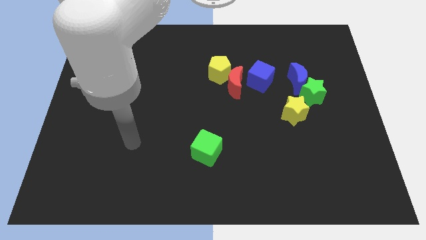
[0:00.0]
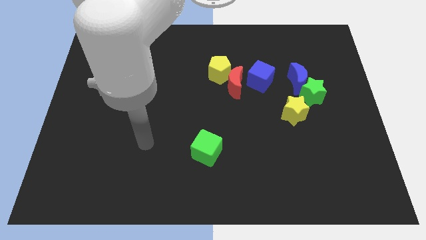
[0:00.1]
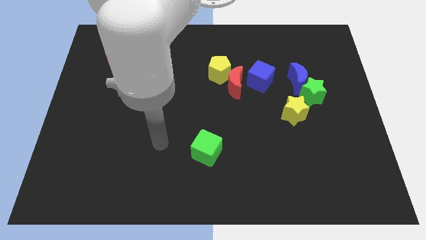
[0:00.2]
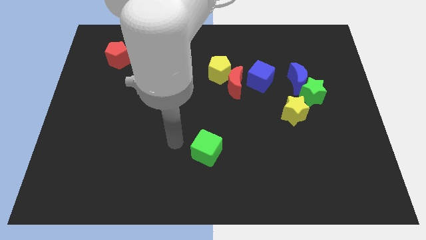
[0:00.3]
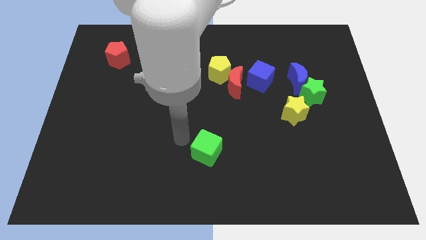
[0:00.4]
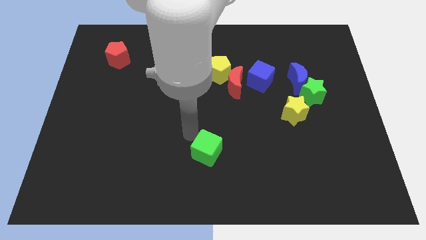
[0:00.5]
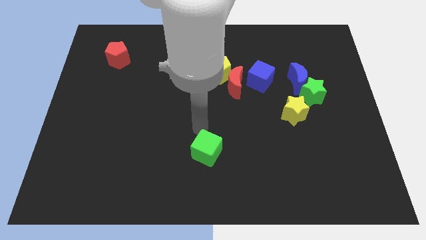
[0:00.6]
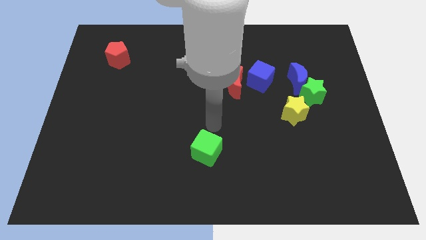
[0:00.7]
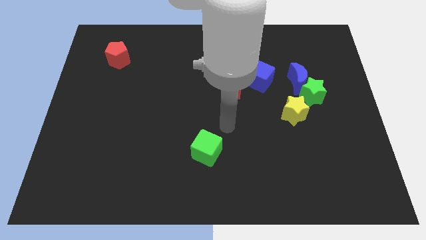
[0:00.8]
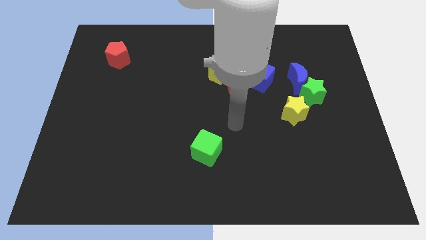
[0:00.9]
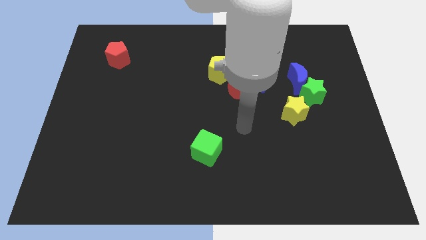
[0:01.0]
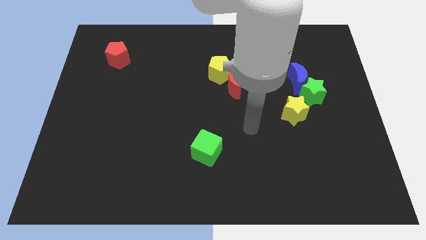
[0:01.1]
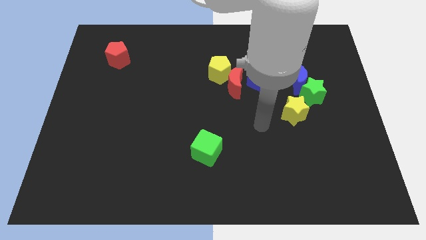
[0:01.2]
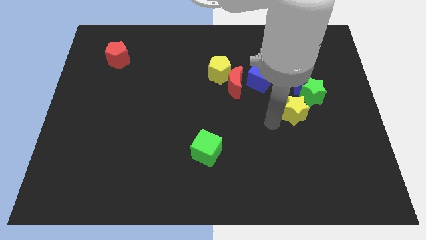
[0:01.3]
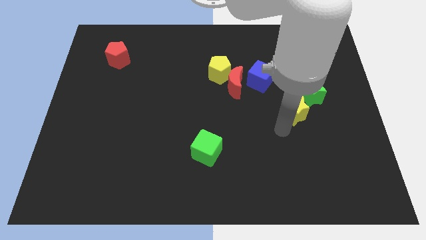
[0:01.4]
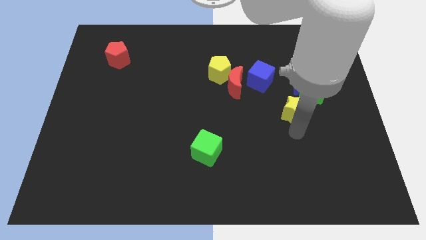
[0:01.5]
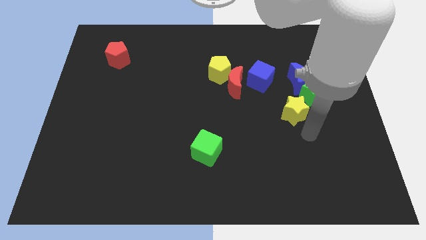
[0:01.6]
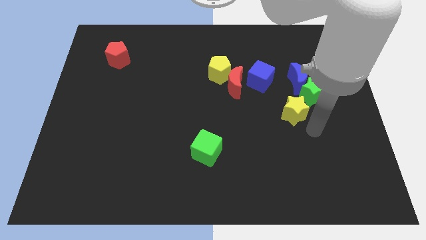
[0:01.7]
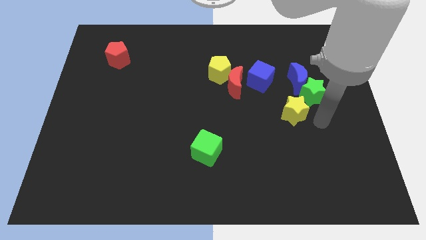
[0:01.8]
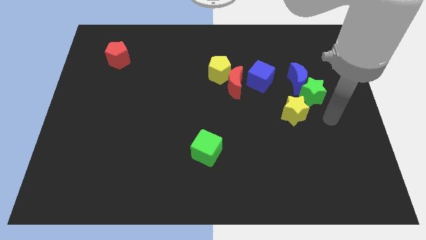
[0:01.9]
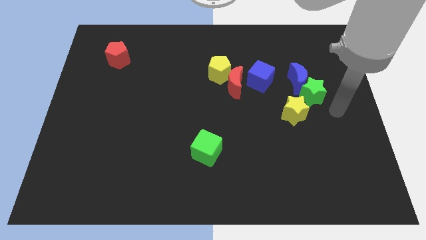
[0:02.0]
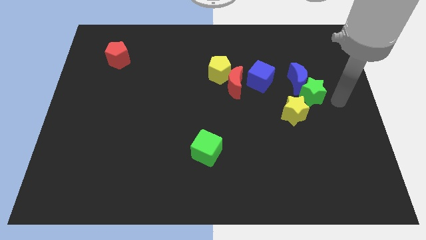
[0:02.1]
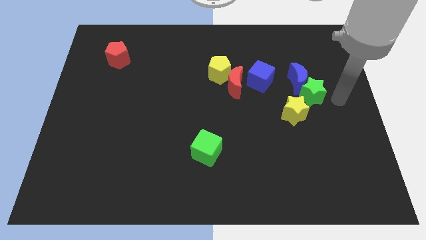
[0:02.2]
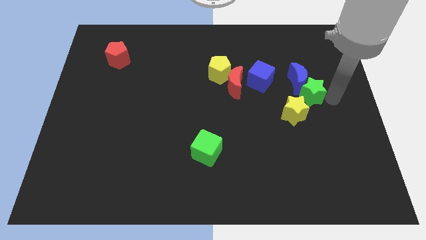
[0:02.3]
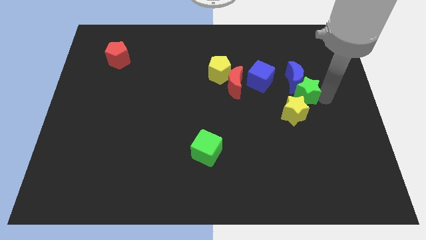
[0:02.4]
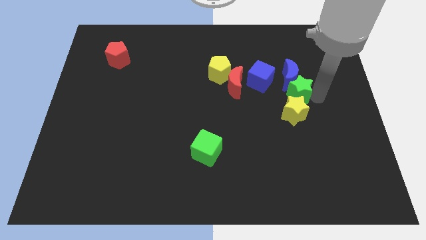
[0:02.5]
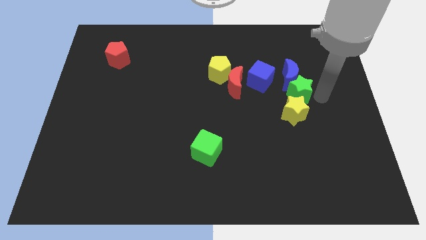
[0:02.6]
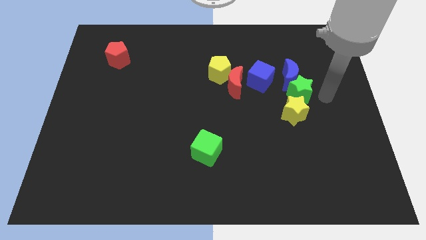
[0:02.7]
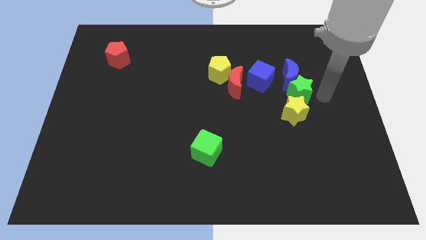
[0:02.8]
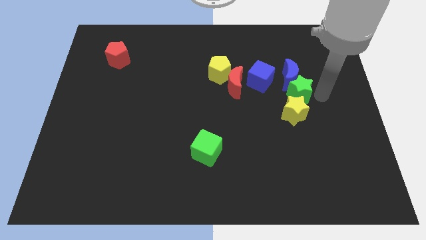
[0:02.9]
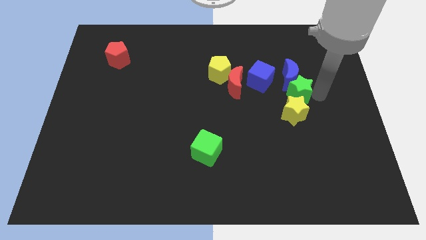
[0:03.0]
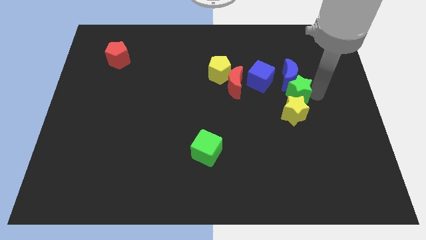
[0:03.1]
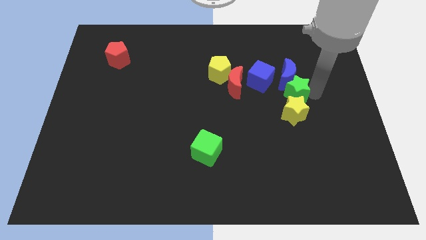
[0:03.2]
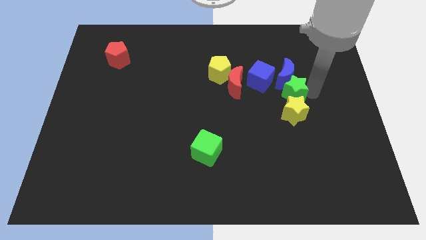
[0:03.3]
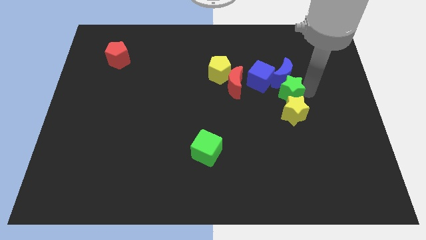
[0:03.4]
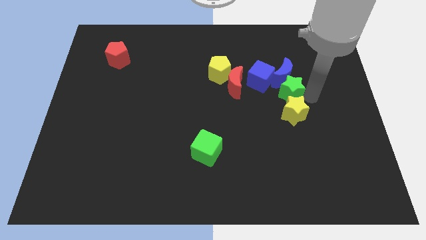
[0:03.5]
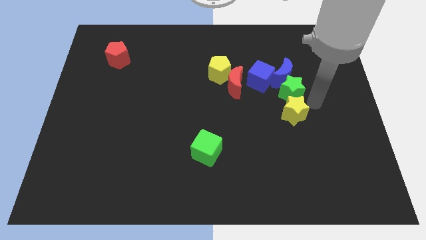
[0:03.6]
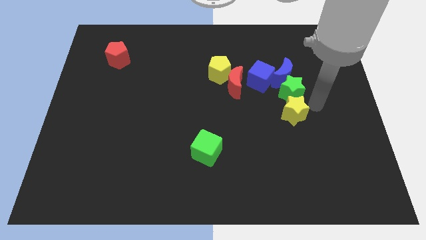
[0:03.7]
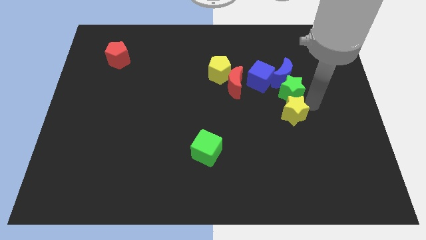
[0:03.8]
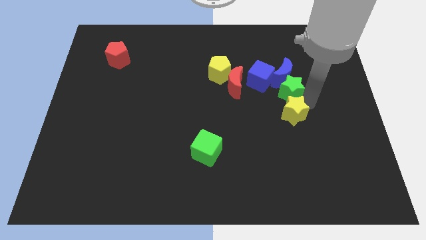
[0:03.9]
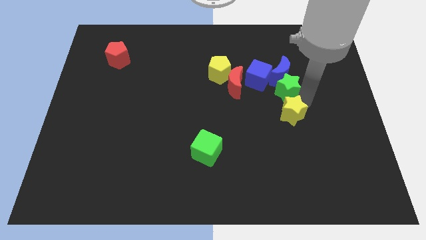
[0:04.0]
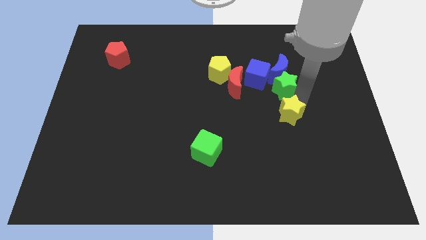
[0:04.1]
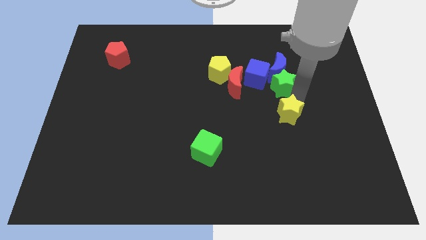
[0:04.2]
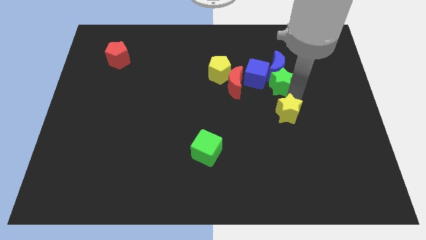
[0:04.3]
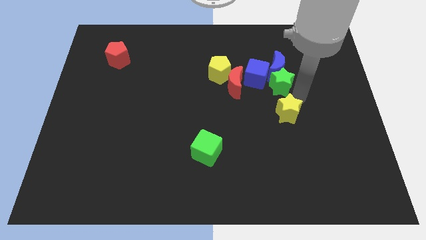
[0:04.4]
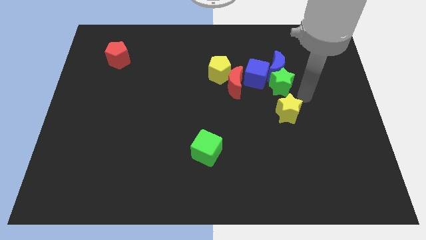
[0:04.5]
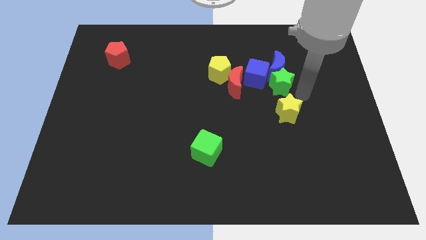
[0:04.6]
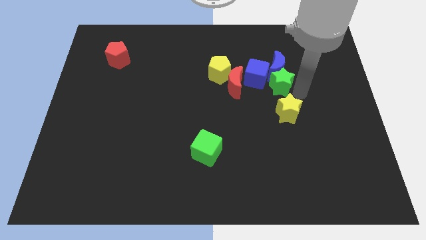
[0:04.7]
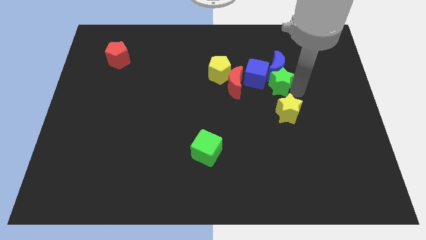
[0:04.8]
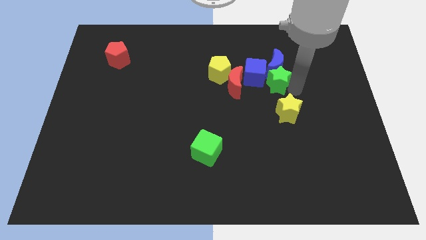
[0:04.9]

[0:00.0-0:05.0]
slide the green star close to the blue cube

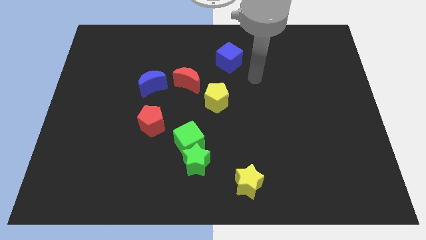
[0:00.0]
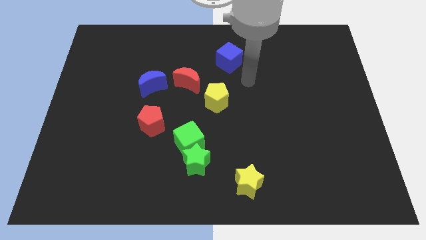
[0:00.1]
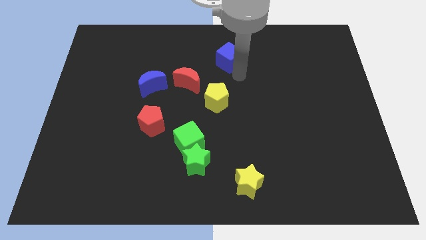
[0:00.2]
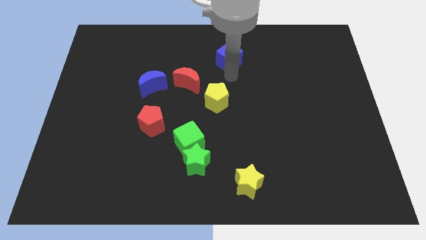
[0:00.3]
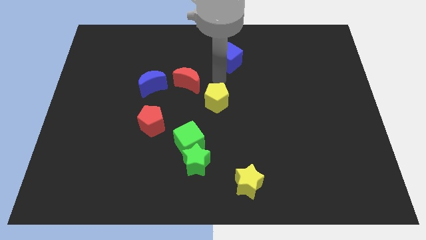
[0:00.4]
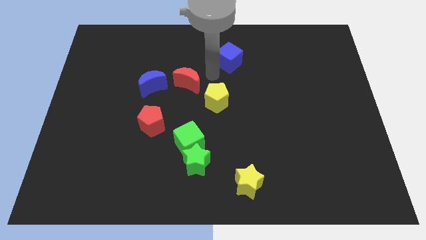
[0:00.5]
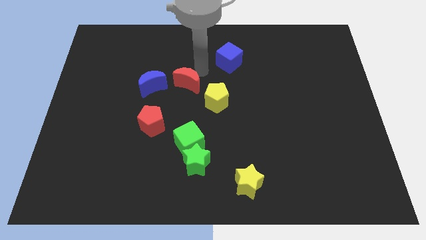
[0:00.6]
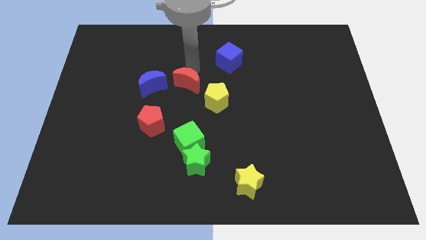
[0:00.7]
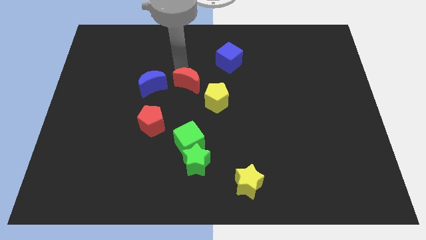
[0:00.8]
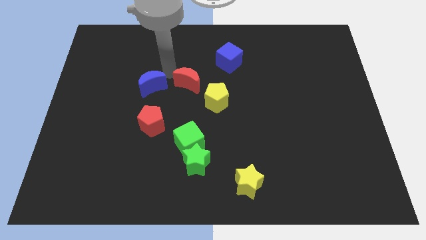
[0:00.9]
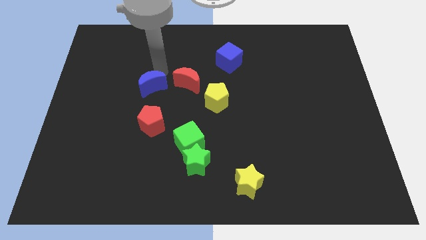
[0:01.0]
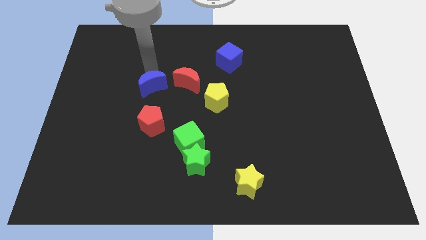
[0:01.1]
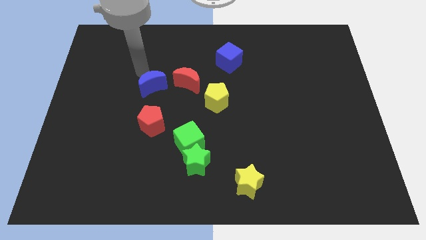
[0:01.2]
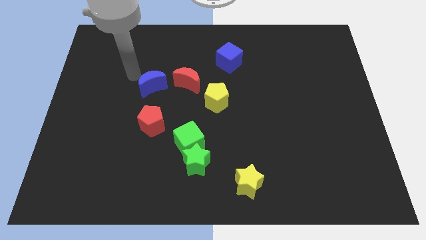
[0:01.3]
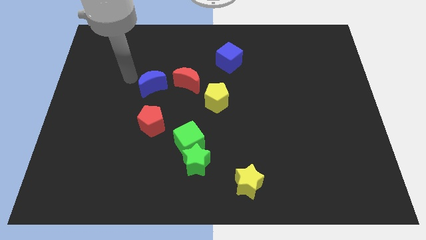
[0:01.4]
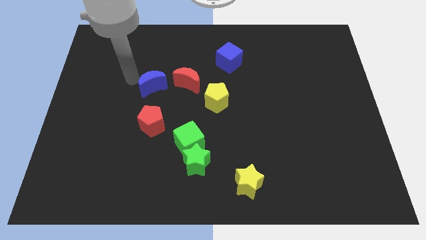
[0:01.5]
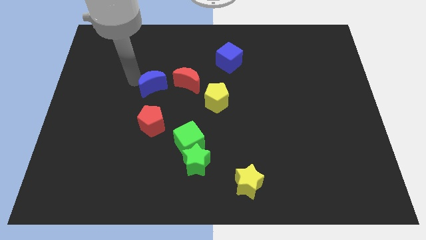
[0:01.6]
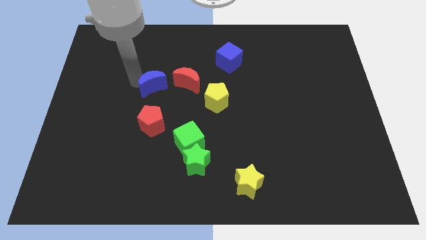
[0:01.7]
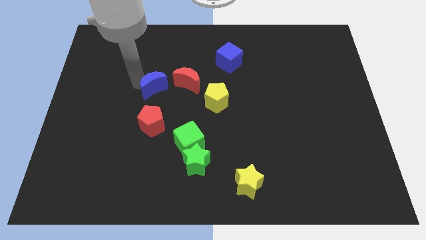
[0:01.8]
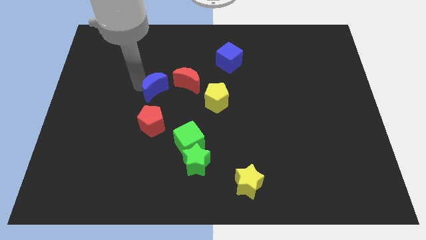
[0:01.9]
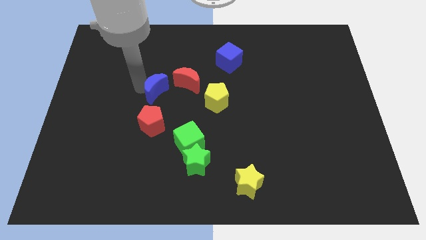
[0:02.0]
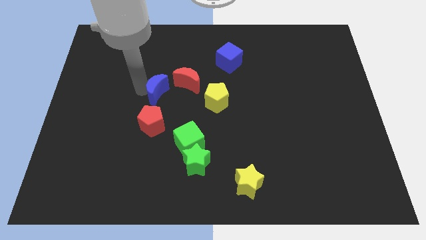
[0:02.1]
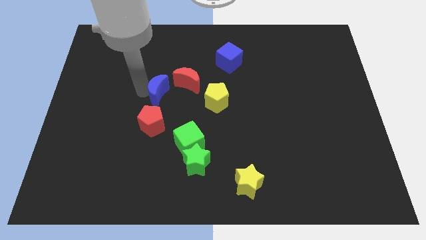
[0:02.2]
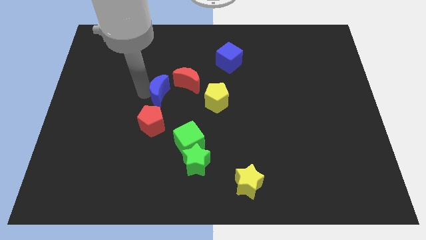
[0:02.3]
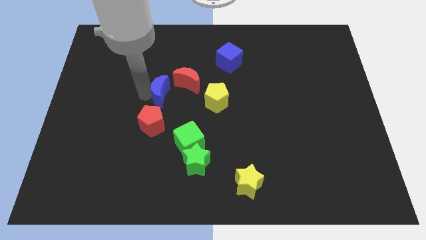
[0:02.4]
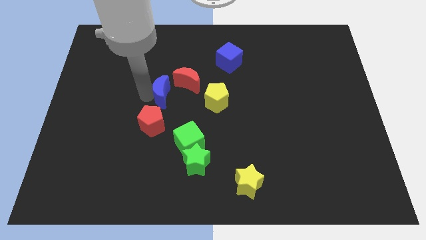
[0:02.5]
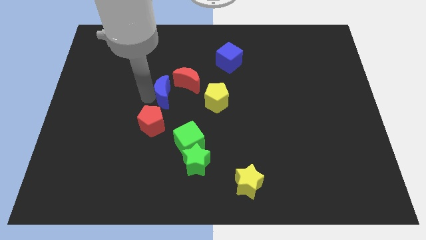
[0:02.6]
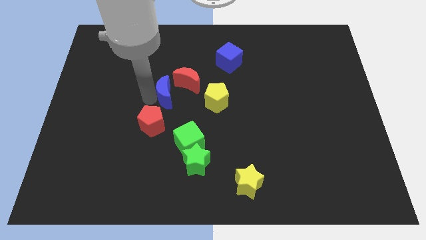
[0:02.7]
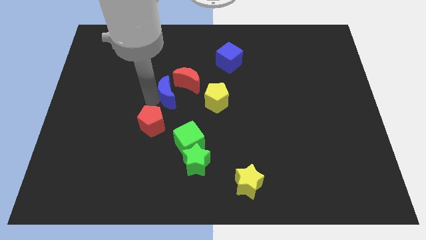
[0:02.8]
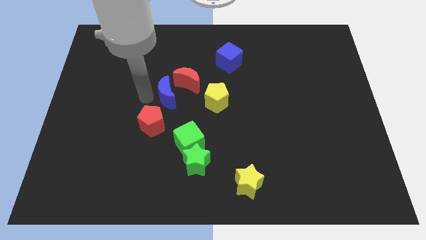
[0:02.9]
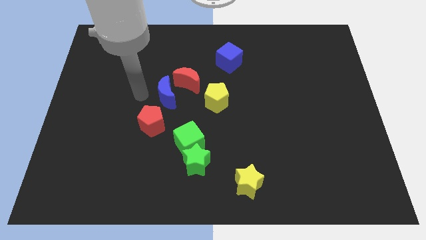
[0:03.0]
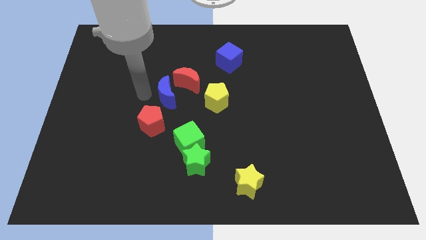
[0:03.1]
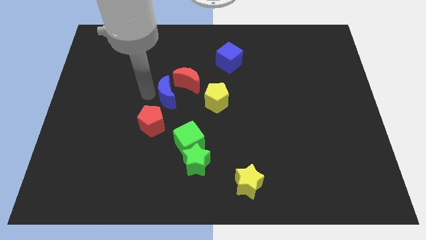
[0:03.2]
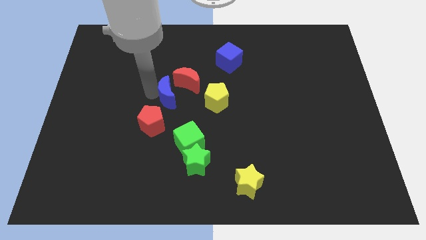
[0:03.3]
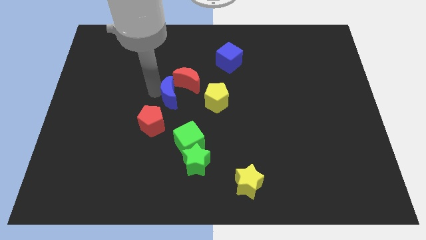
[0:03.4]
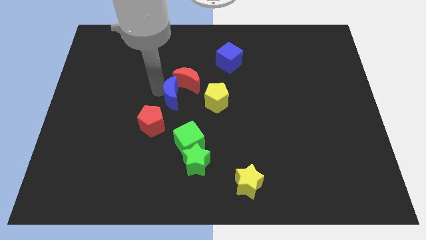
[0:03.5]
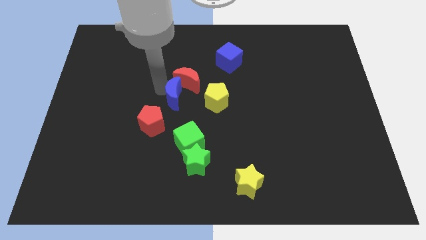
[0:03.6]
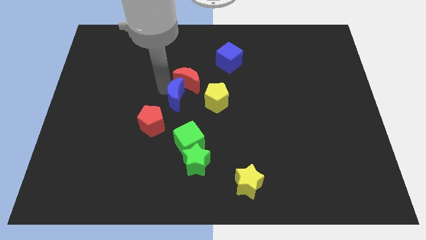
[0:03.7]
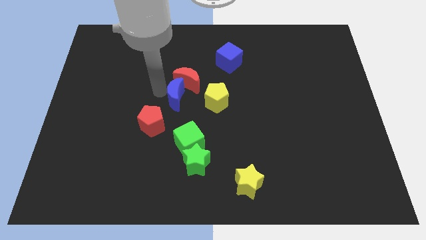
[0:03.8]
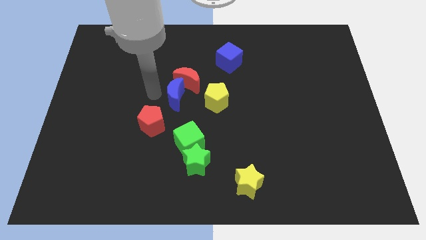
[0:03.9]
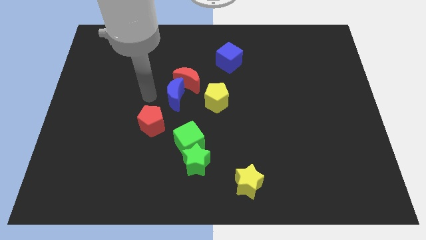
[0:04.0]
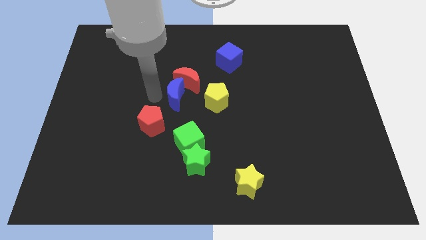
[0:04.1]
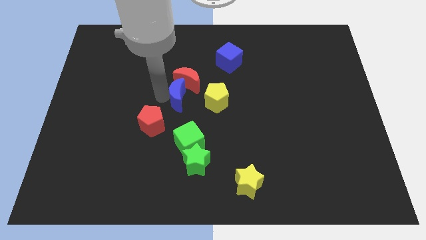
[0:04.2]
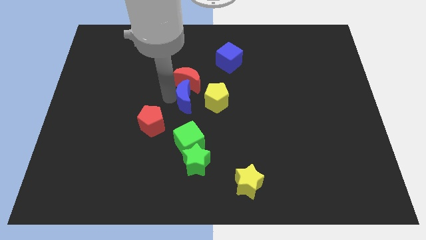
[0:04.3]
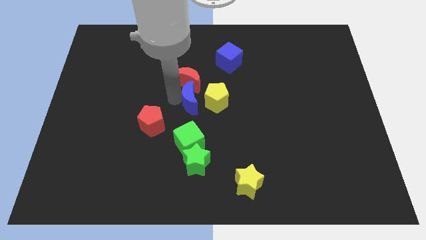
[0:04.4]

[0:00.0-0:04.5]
put the blue moon towards the yellow pentagon
